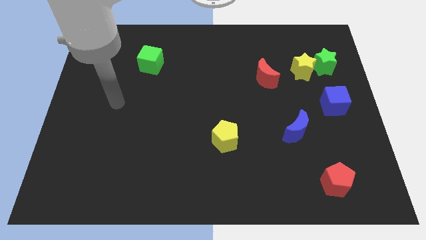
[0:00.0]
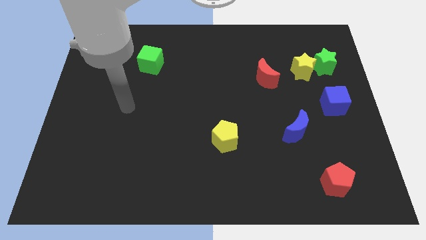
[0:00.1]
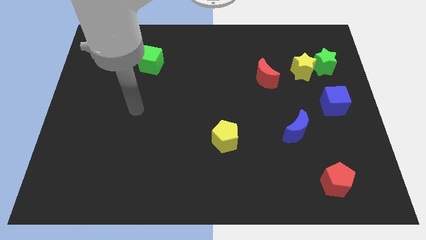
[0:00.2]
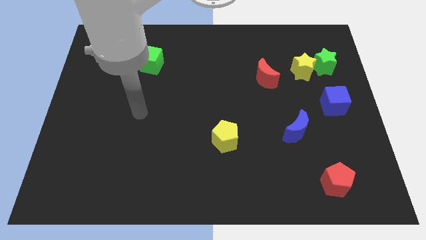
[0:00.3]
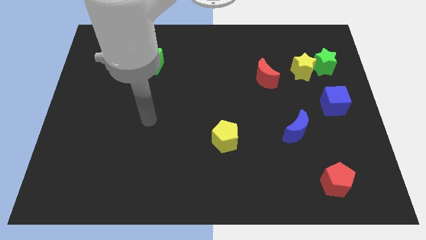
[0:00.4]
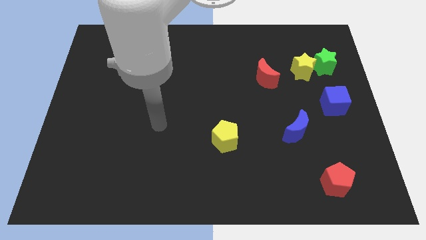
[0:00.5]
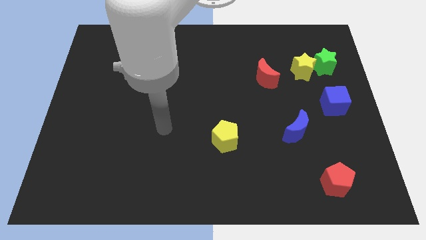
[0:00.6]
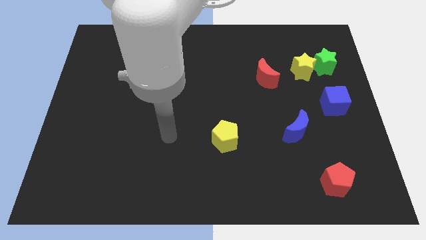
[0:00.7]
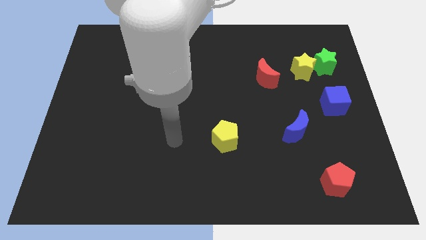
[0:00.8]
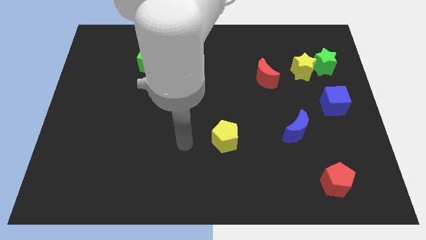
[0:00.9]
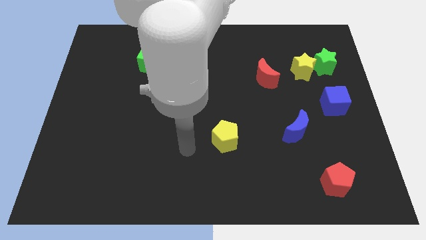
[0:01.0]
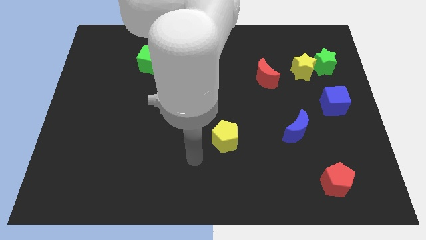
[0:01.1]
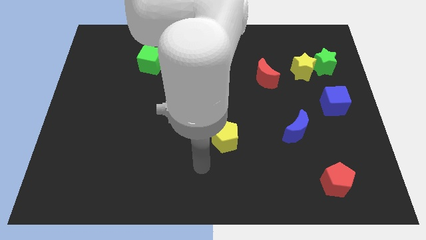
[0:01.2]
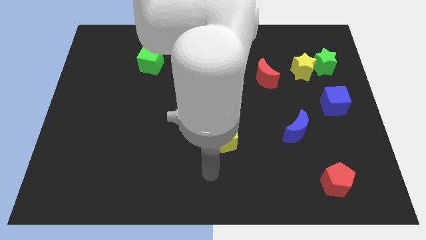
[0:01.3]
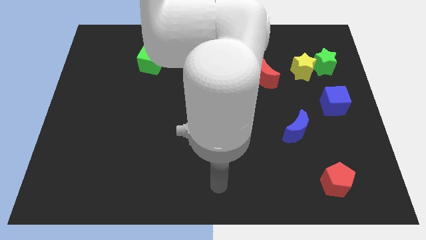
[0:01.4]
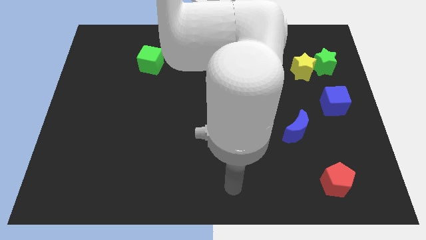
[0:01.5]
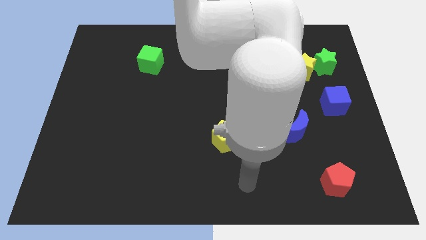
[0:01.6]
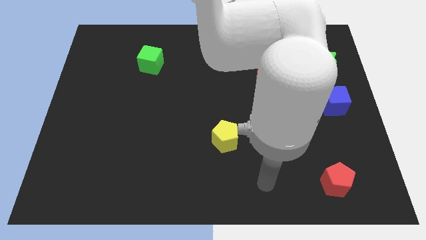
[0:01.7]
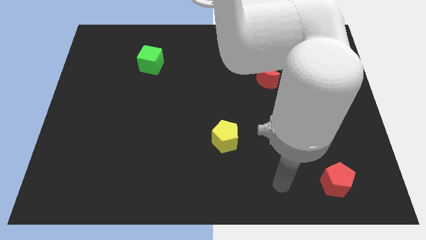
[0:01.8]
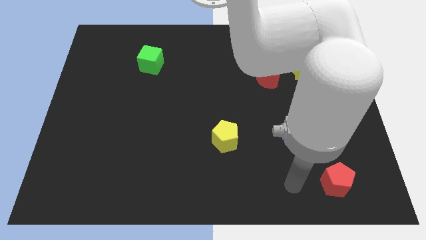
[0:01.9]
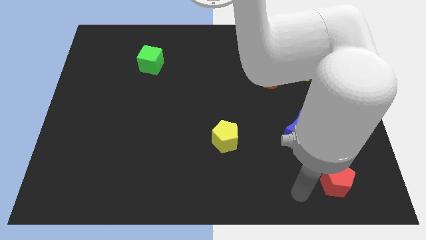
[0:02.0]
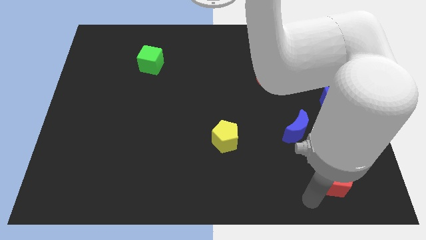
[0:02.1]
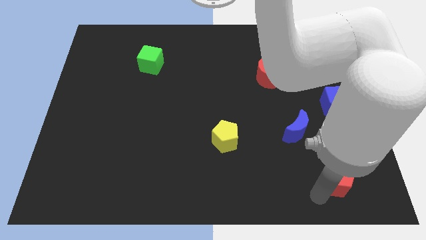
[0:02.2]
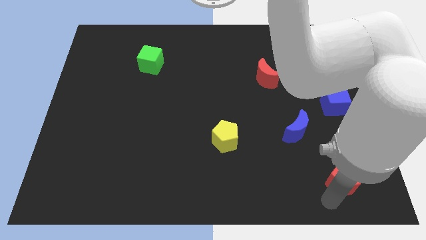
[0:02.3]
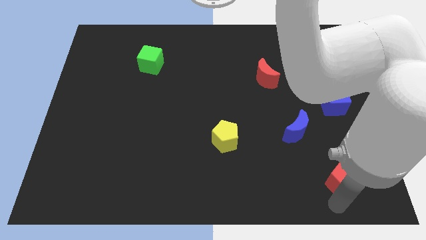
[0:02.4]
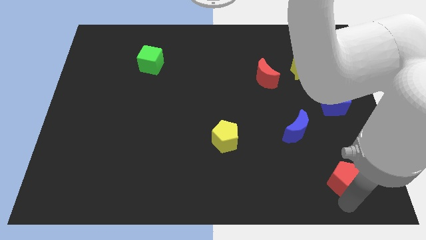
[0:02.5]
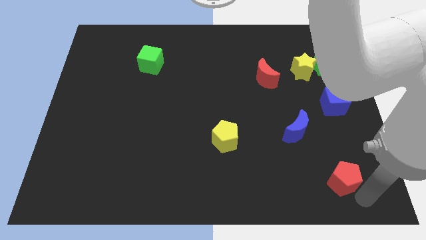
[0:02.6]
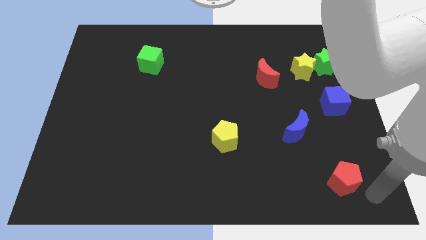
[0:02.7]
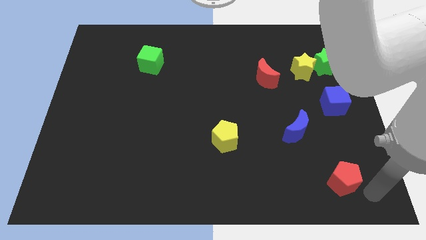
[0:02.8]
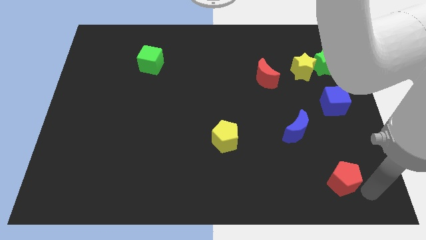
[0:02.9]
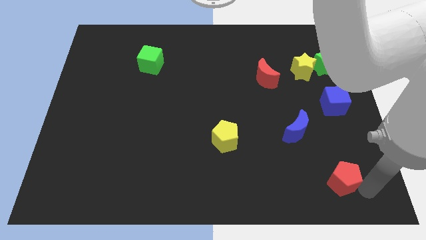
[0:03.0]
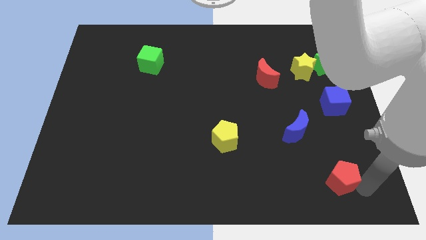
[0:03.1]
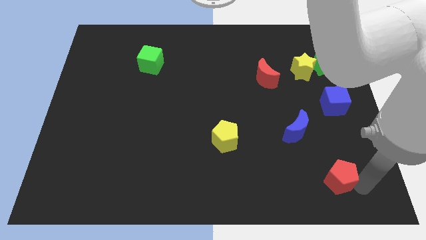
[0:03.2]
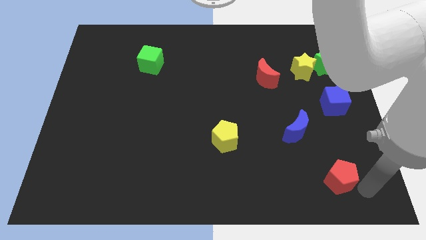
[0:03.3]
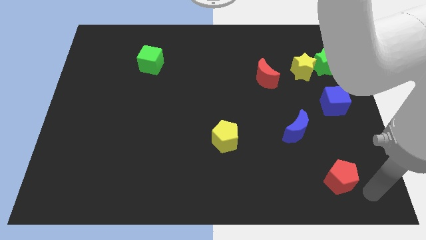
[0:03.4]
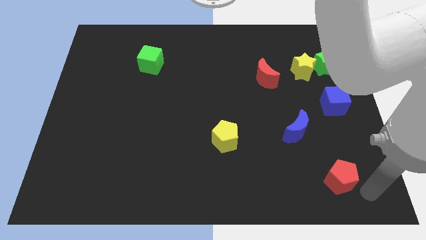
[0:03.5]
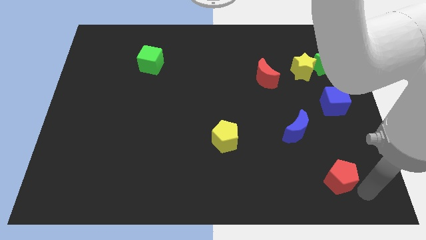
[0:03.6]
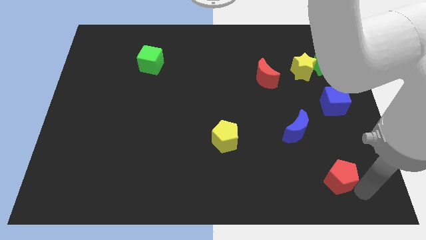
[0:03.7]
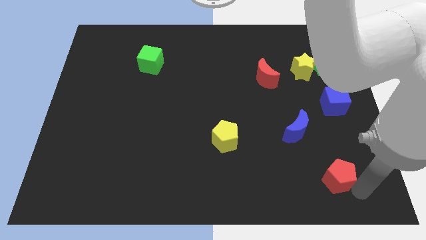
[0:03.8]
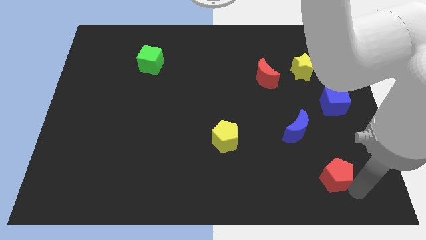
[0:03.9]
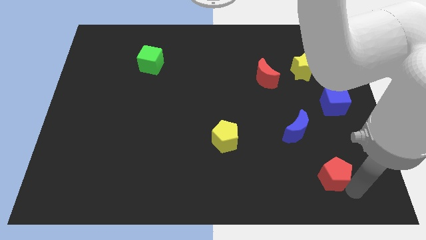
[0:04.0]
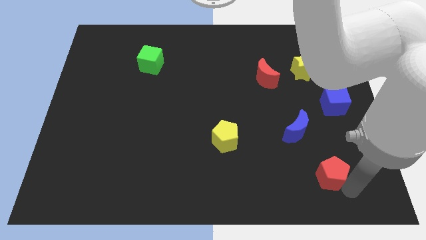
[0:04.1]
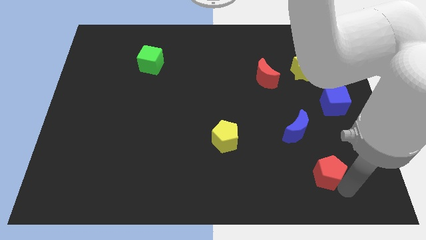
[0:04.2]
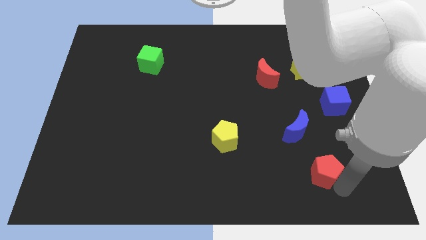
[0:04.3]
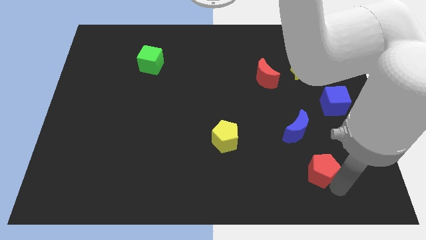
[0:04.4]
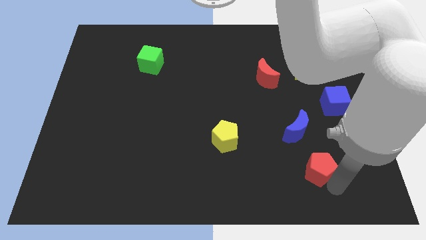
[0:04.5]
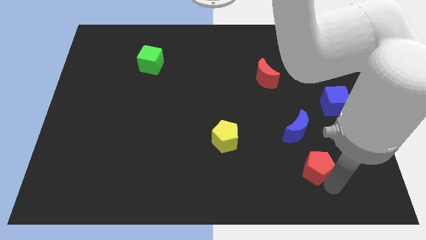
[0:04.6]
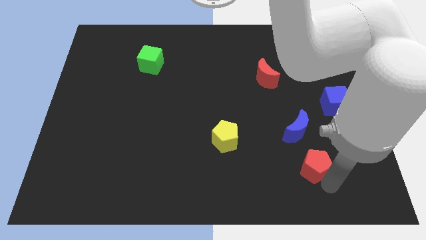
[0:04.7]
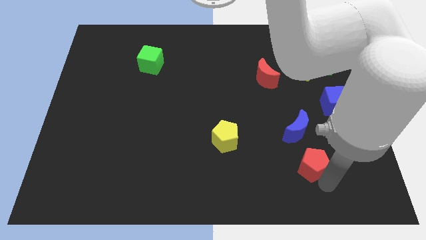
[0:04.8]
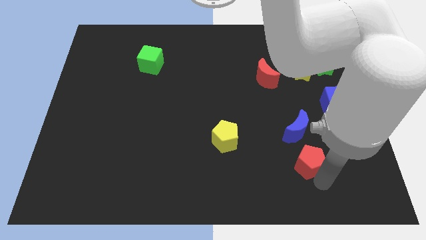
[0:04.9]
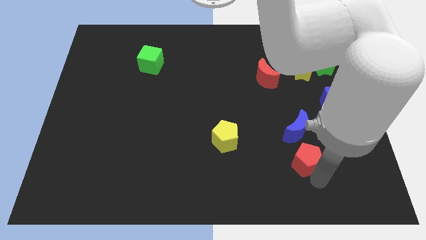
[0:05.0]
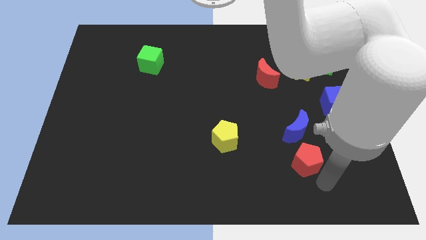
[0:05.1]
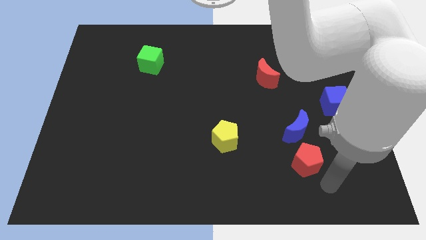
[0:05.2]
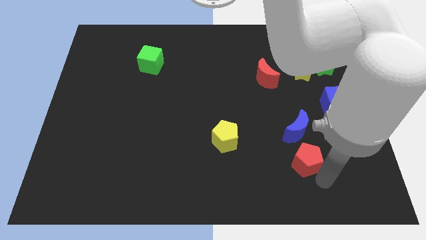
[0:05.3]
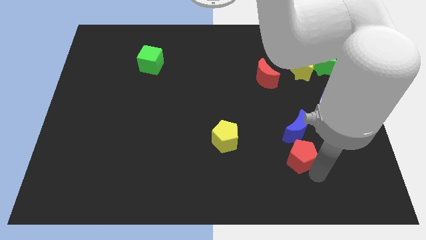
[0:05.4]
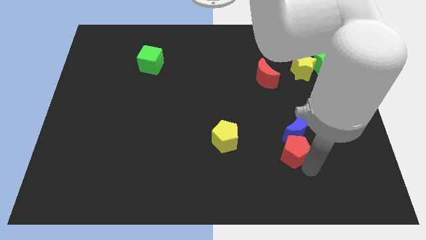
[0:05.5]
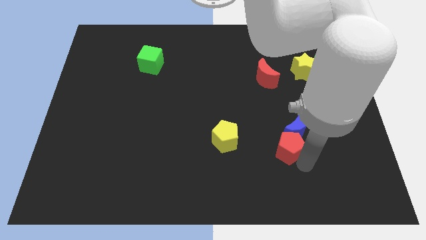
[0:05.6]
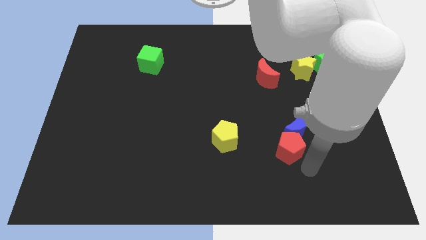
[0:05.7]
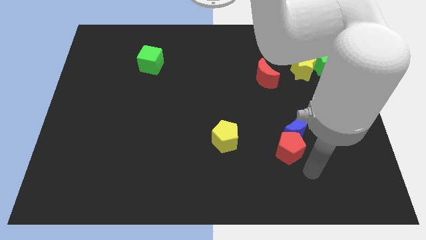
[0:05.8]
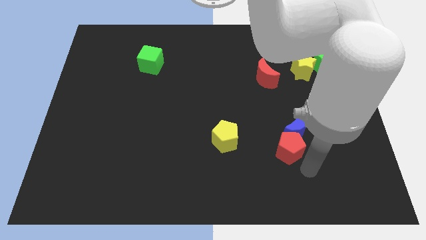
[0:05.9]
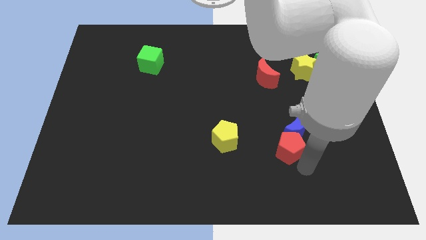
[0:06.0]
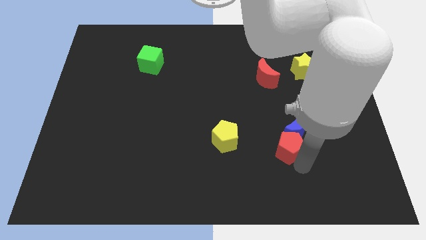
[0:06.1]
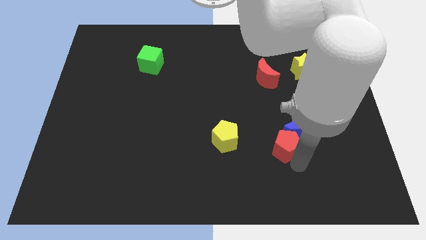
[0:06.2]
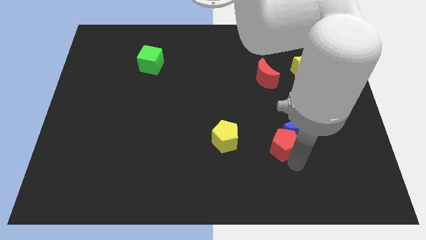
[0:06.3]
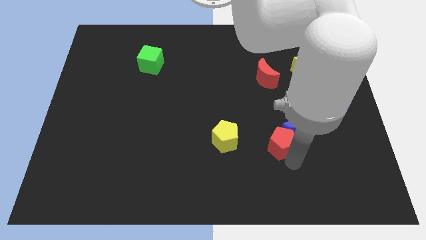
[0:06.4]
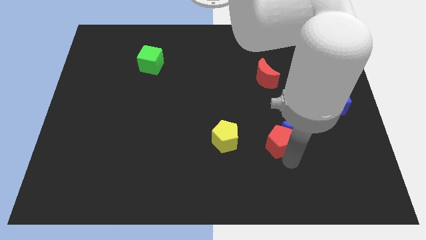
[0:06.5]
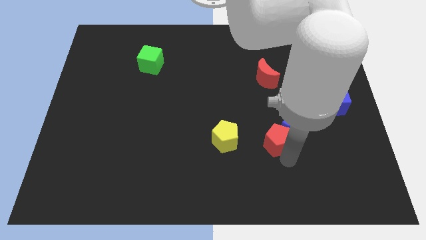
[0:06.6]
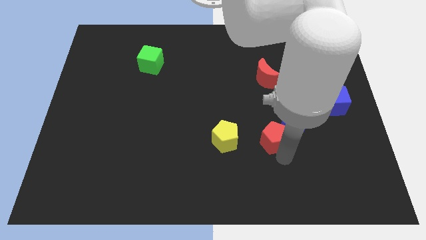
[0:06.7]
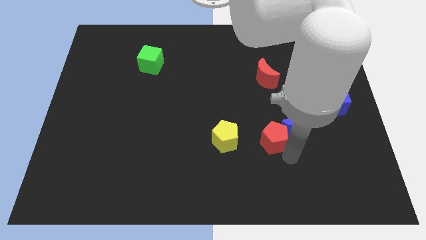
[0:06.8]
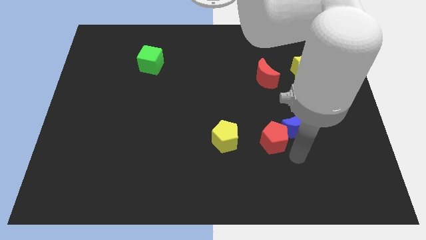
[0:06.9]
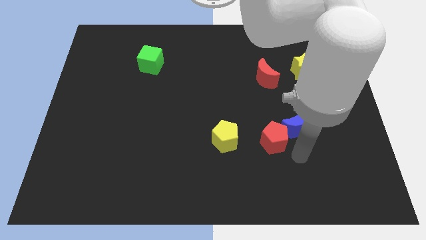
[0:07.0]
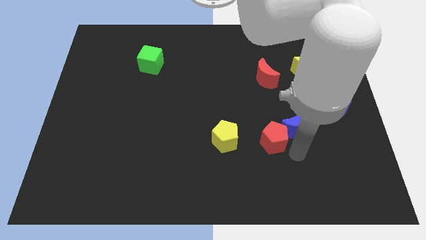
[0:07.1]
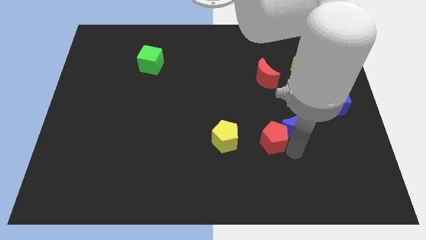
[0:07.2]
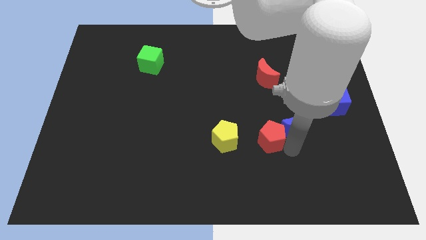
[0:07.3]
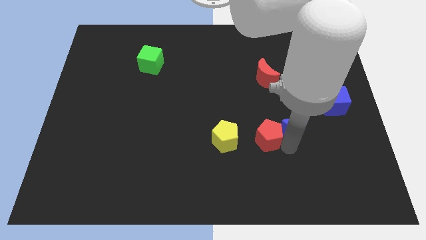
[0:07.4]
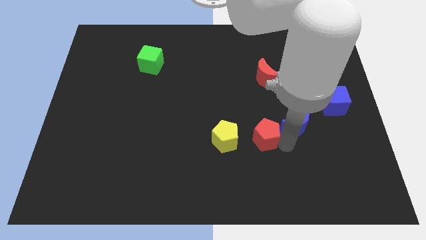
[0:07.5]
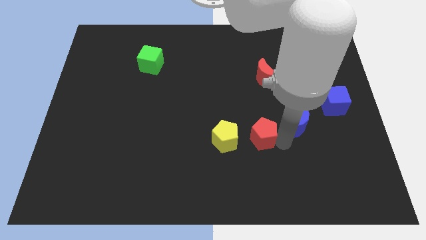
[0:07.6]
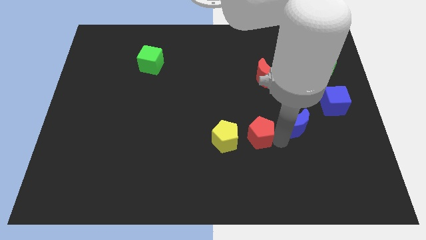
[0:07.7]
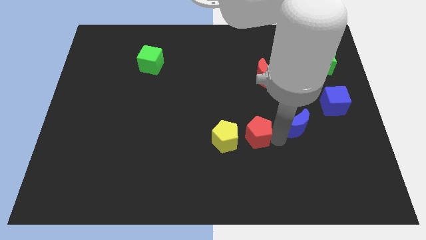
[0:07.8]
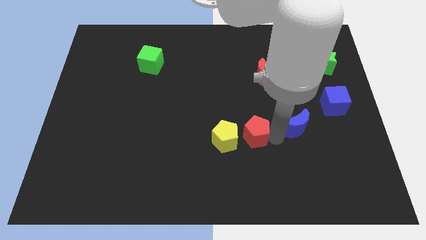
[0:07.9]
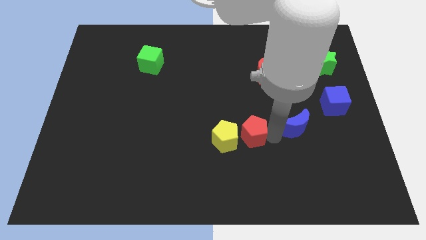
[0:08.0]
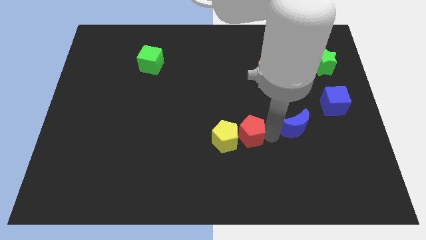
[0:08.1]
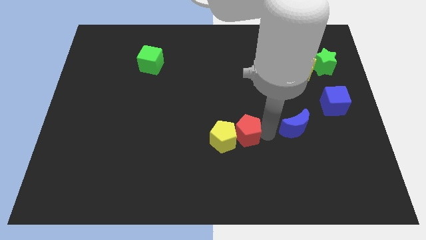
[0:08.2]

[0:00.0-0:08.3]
move the red pentagon upwards and then to the left
